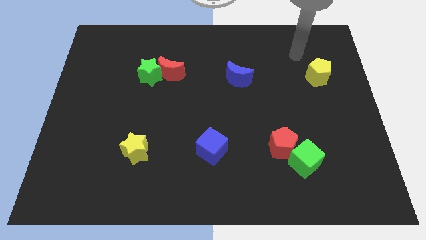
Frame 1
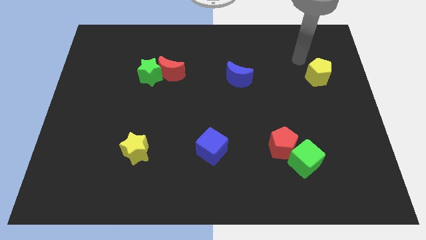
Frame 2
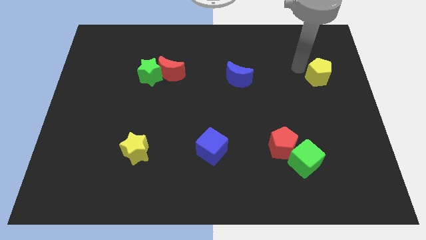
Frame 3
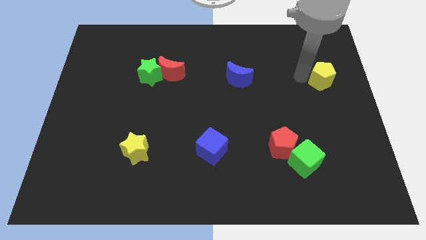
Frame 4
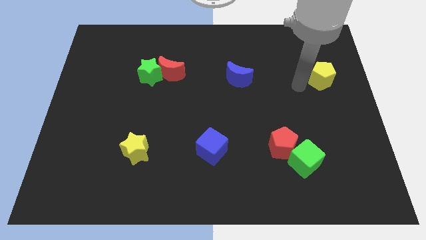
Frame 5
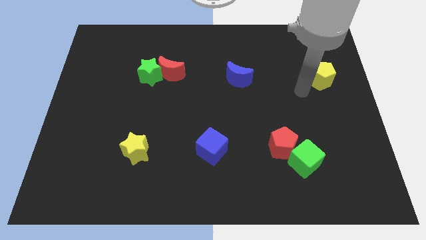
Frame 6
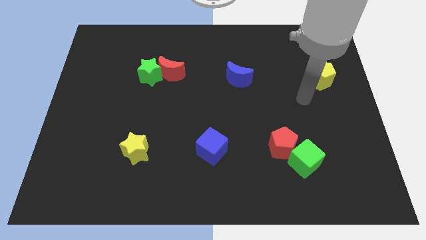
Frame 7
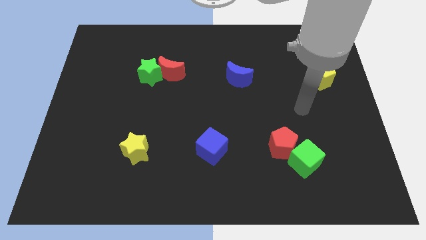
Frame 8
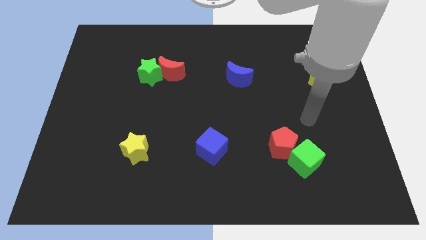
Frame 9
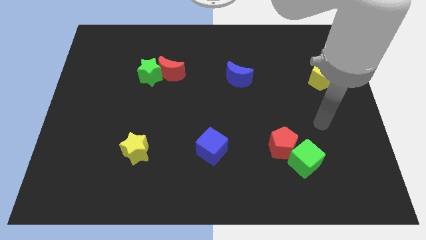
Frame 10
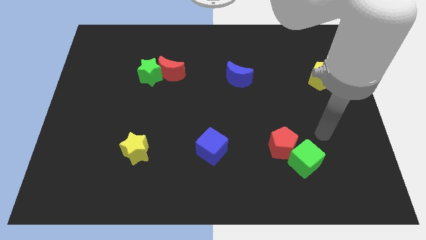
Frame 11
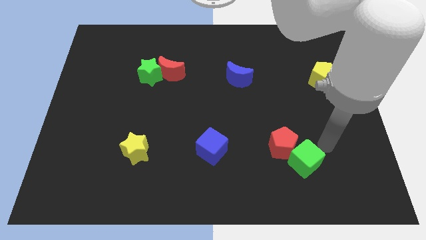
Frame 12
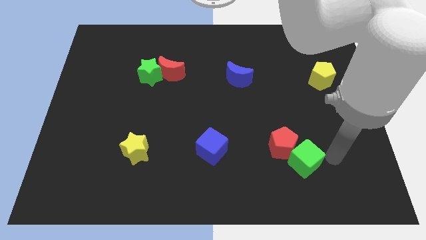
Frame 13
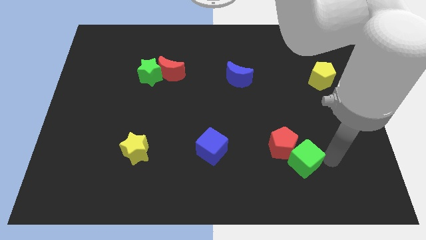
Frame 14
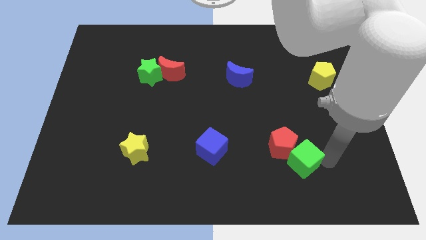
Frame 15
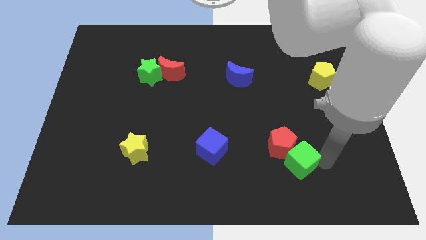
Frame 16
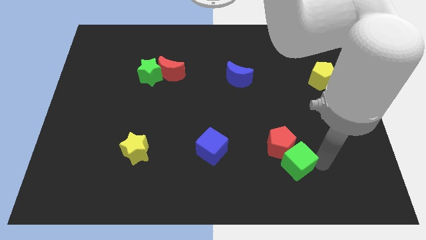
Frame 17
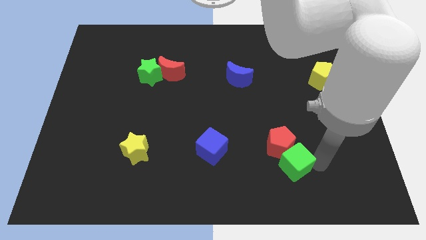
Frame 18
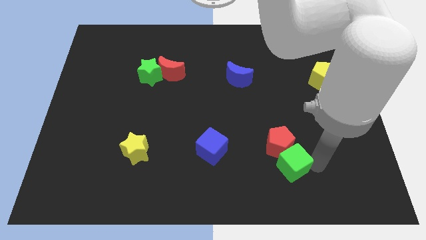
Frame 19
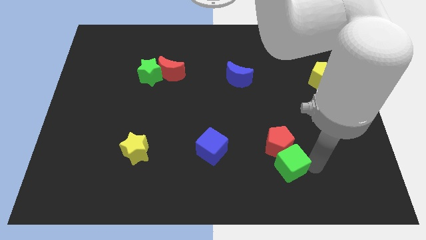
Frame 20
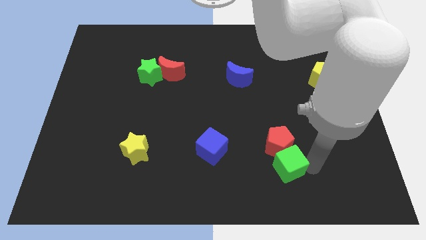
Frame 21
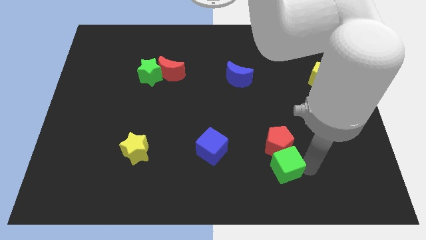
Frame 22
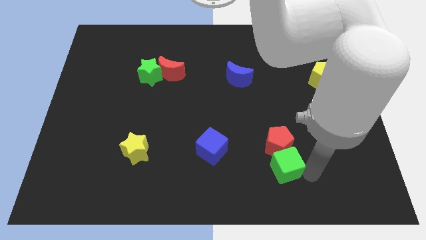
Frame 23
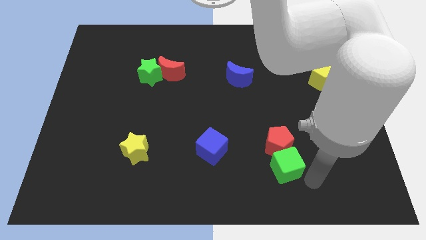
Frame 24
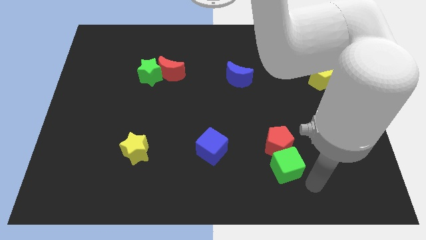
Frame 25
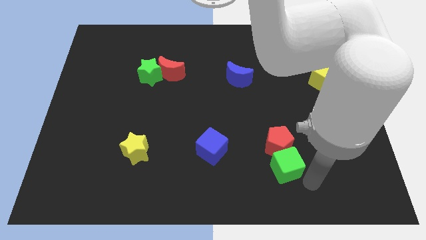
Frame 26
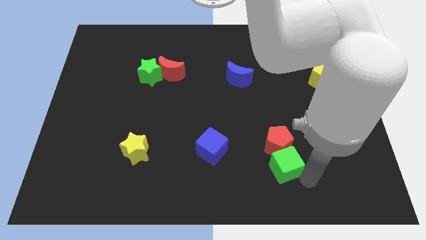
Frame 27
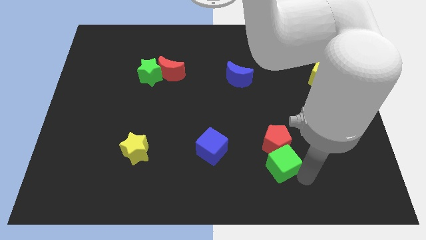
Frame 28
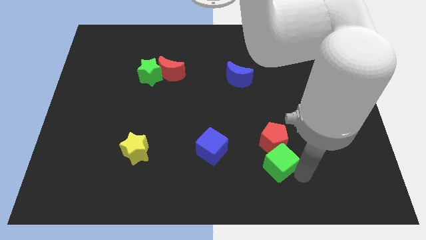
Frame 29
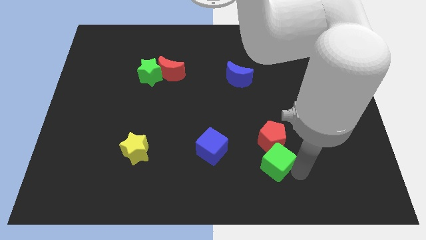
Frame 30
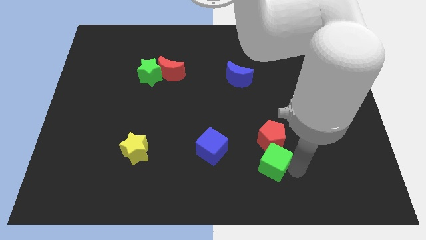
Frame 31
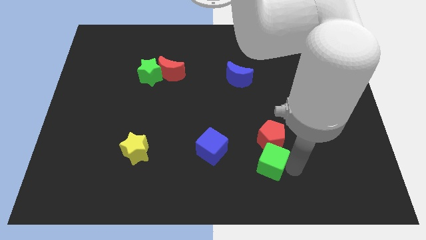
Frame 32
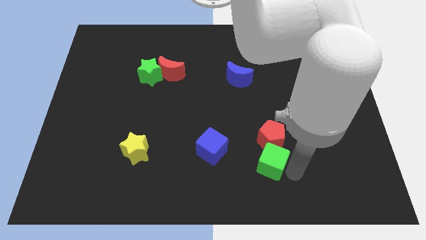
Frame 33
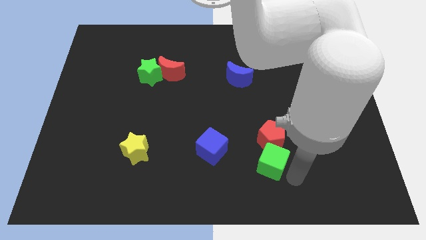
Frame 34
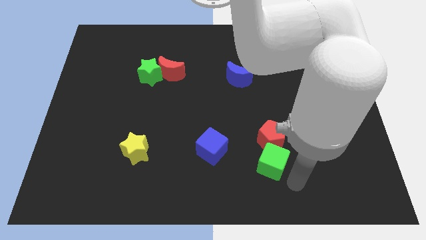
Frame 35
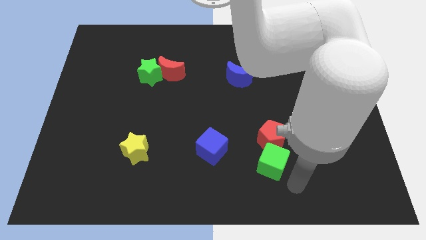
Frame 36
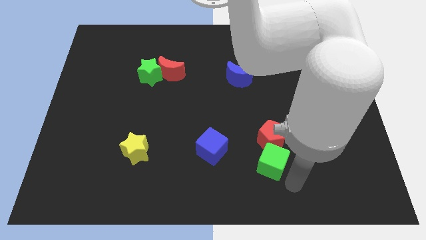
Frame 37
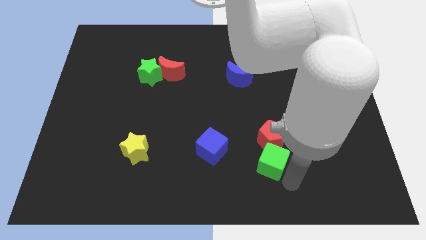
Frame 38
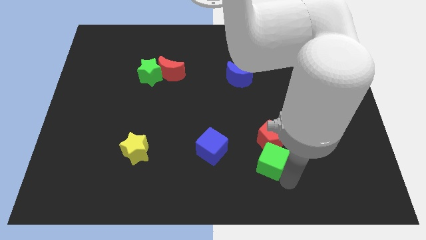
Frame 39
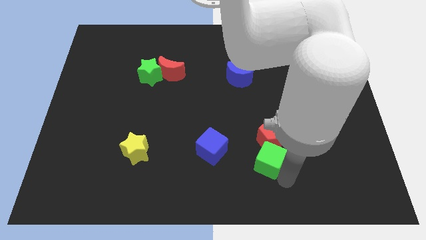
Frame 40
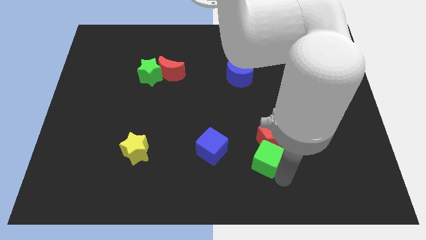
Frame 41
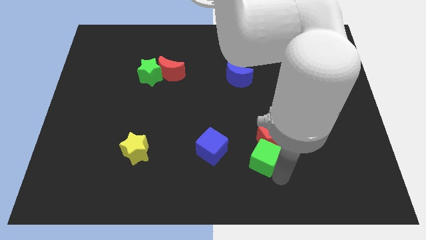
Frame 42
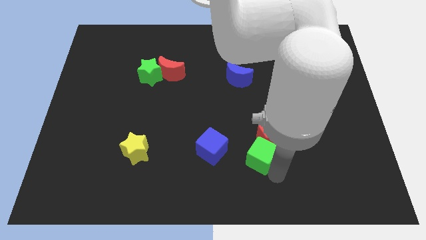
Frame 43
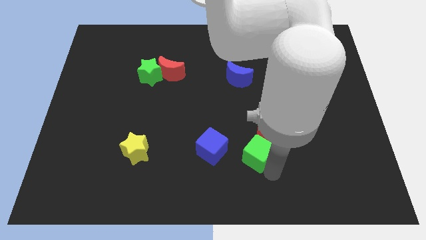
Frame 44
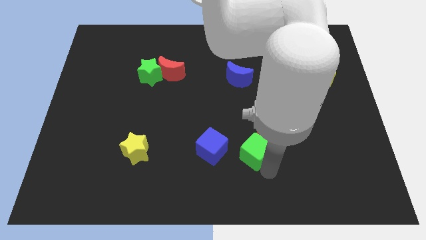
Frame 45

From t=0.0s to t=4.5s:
slightly move the green cube up and to the left diagonally

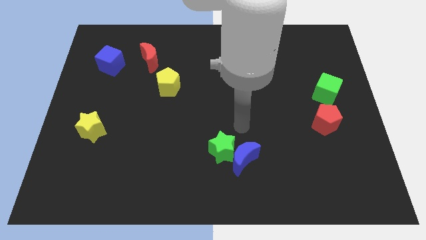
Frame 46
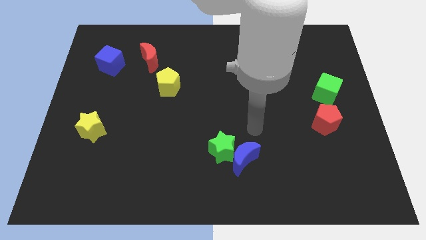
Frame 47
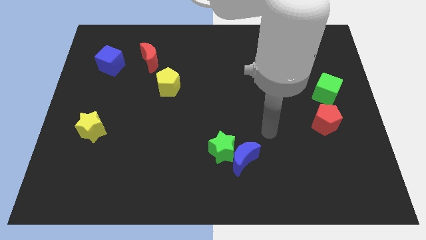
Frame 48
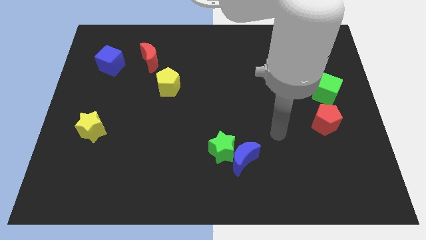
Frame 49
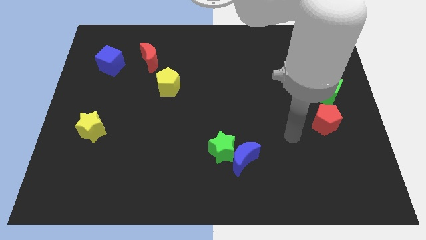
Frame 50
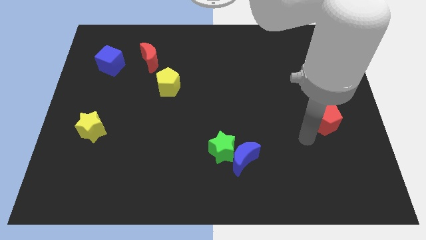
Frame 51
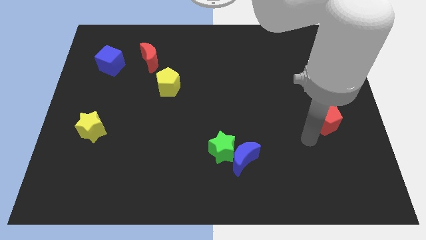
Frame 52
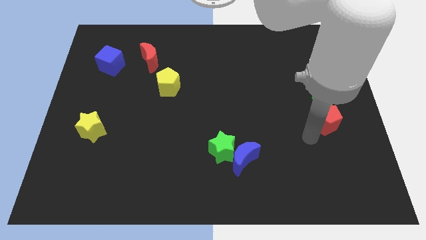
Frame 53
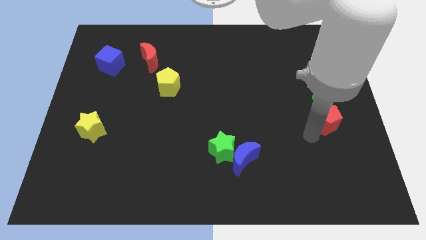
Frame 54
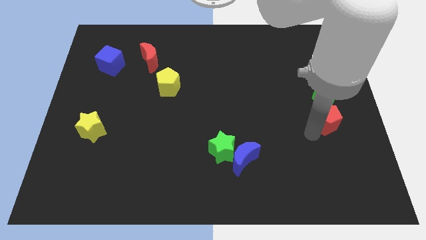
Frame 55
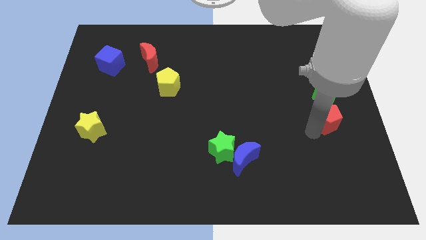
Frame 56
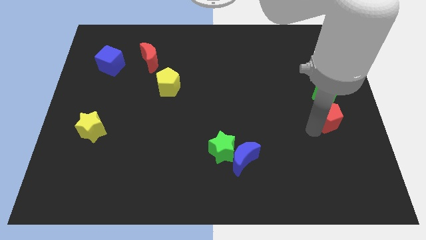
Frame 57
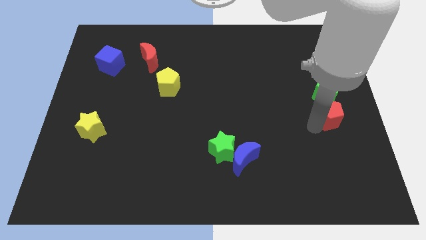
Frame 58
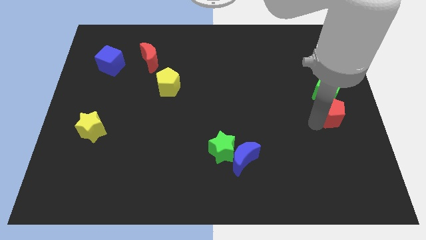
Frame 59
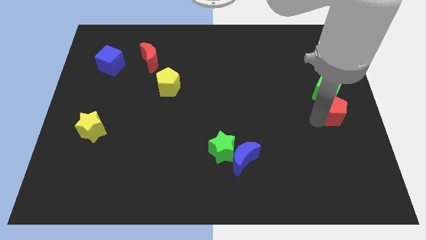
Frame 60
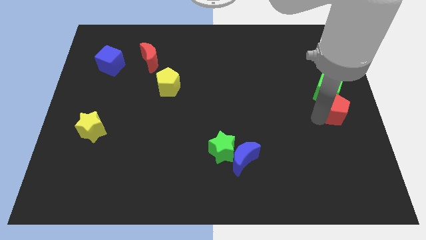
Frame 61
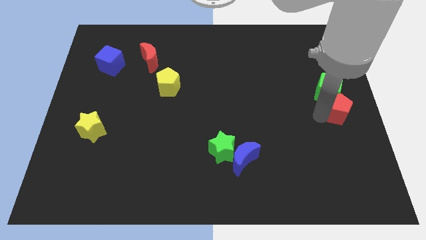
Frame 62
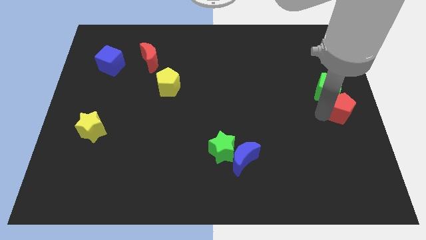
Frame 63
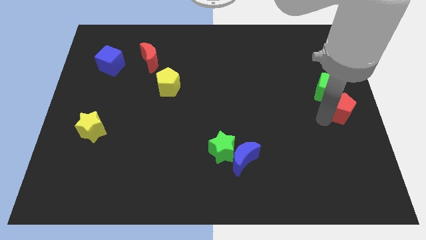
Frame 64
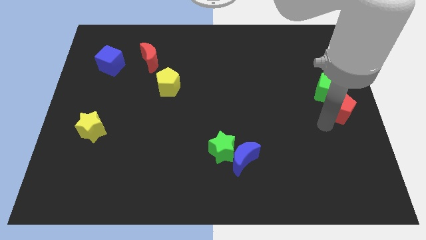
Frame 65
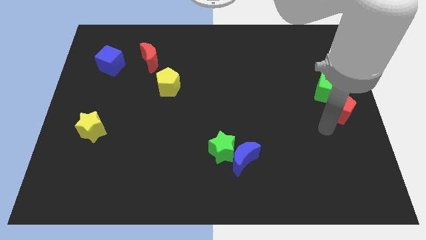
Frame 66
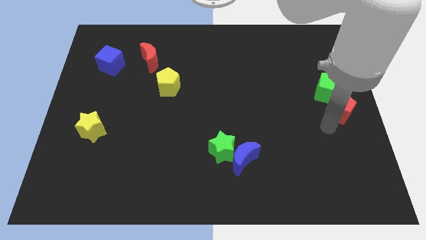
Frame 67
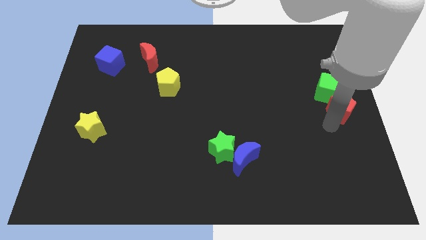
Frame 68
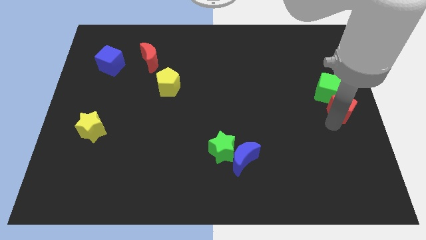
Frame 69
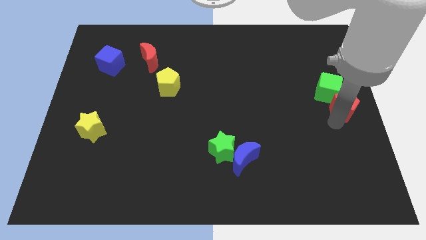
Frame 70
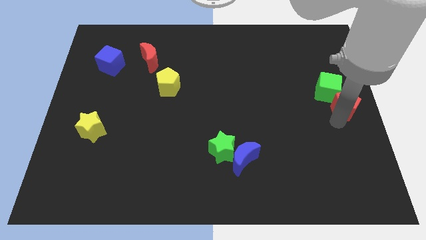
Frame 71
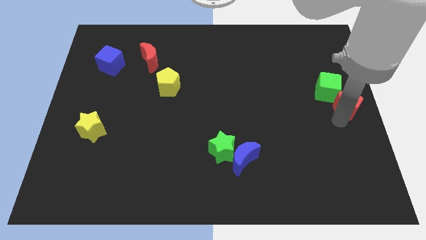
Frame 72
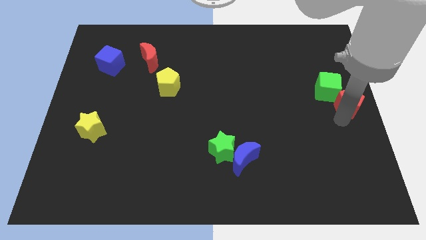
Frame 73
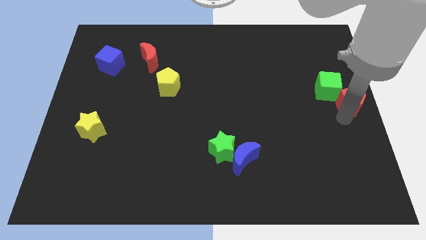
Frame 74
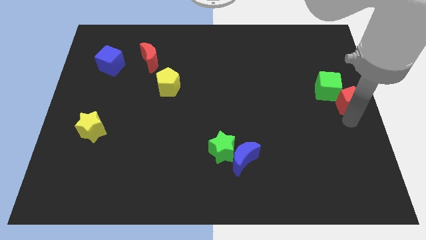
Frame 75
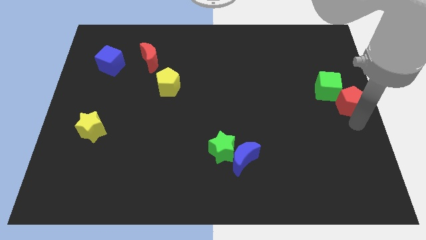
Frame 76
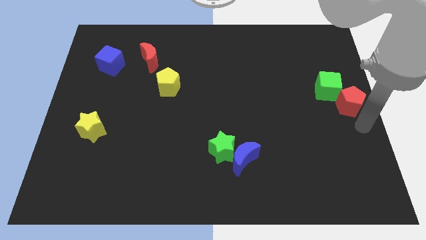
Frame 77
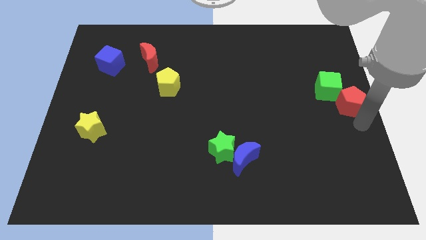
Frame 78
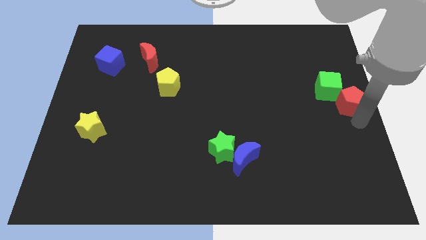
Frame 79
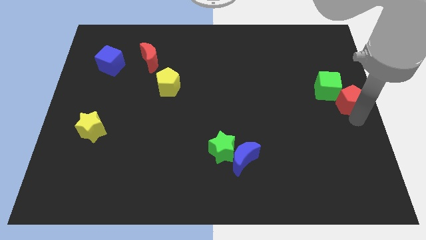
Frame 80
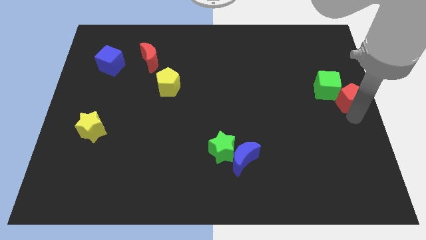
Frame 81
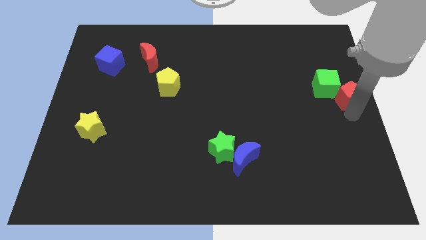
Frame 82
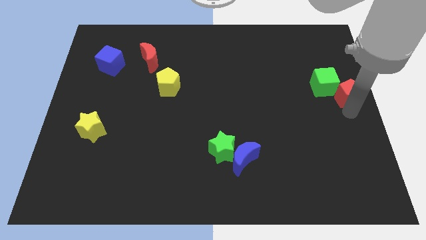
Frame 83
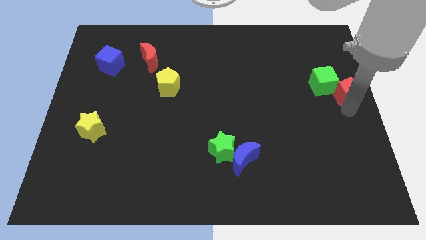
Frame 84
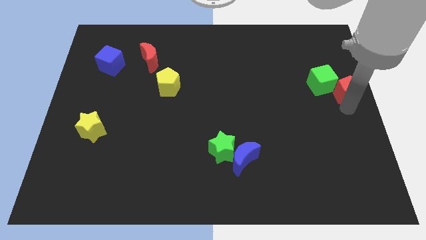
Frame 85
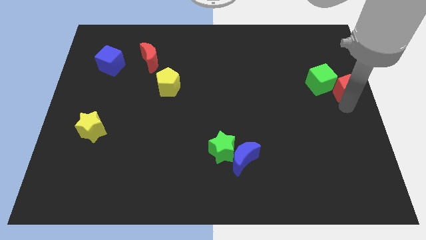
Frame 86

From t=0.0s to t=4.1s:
slide the red pentagon a little upwards
